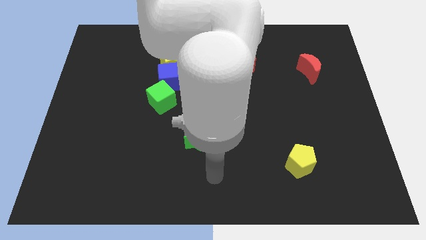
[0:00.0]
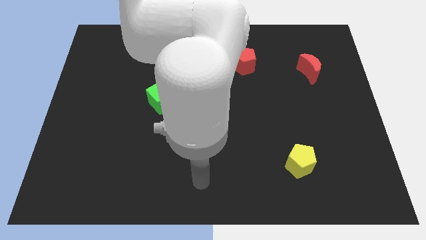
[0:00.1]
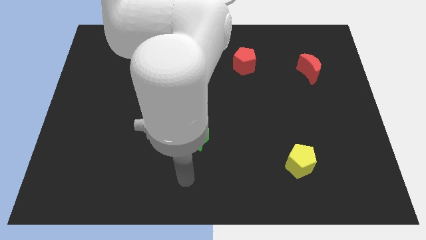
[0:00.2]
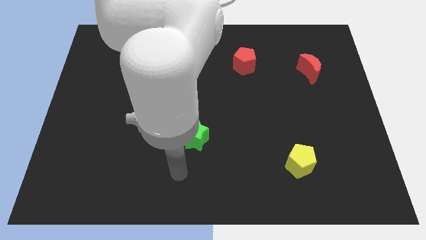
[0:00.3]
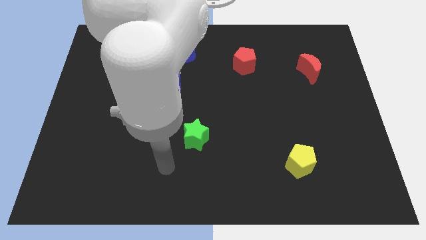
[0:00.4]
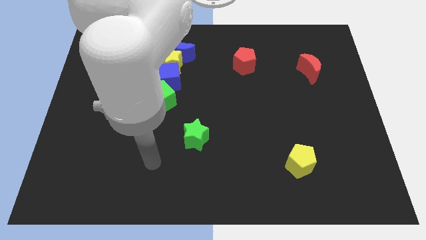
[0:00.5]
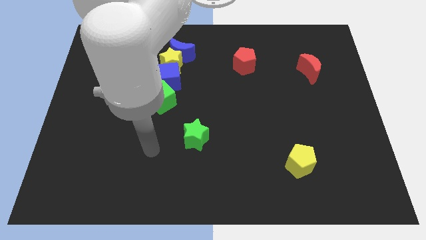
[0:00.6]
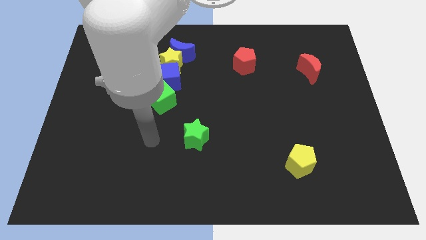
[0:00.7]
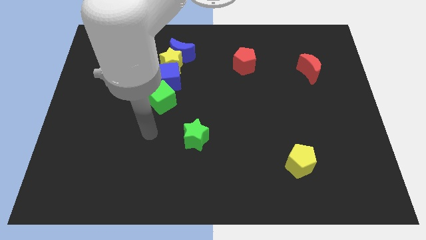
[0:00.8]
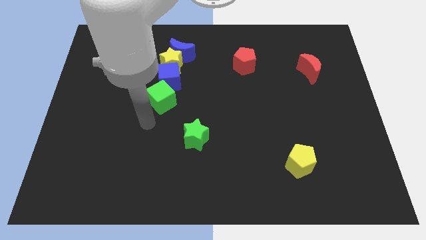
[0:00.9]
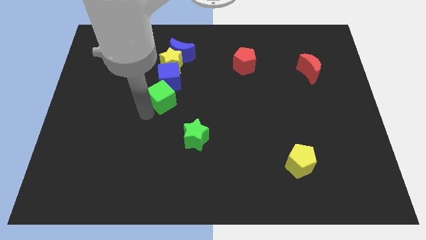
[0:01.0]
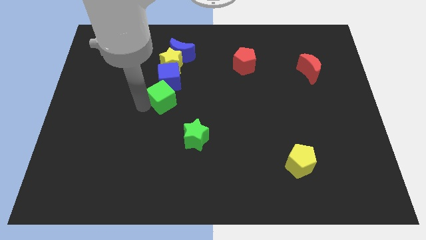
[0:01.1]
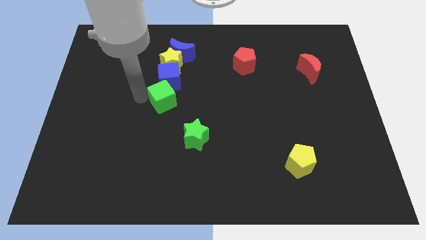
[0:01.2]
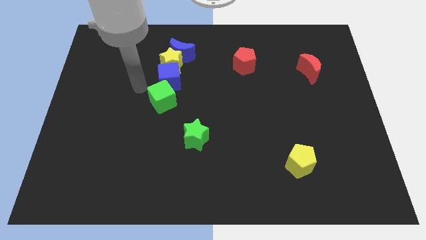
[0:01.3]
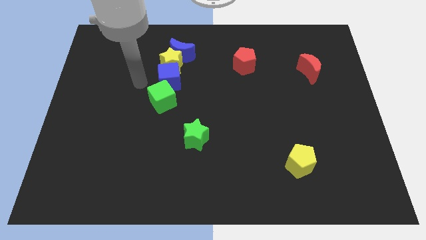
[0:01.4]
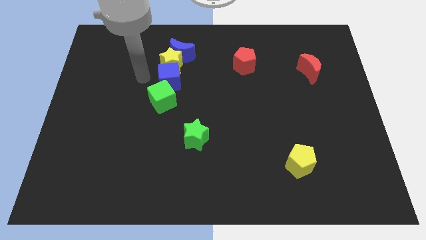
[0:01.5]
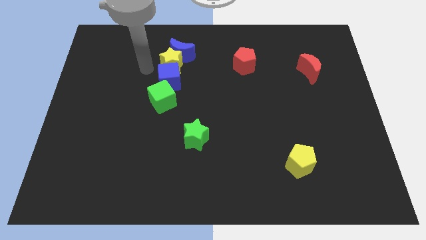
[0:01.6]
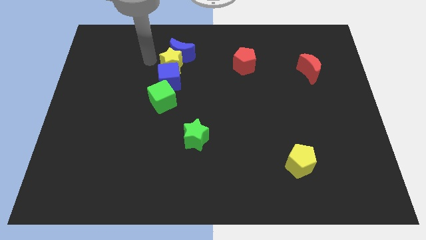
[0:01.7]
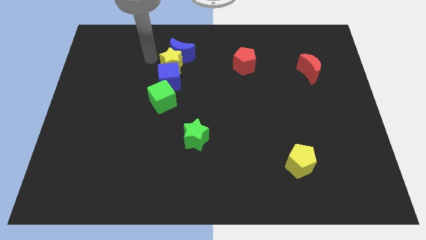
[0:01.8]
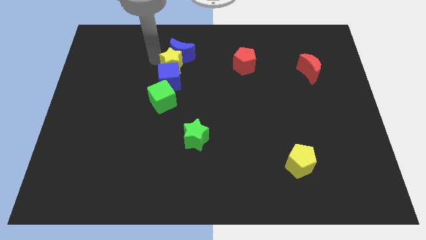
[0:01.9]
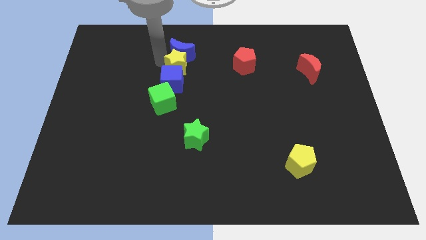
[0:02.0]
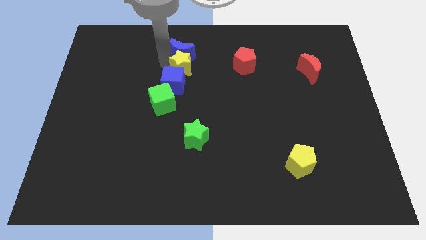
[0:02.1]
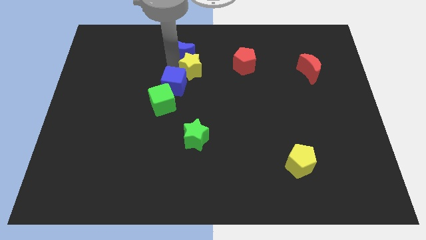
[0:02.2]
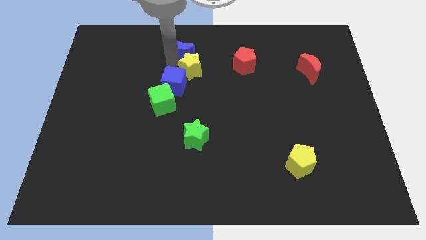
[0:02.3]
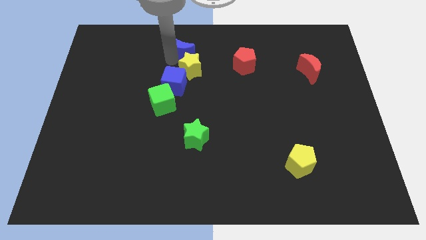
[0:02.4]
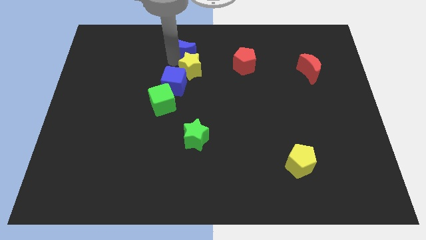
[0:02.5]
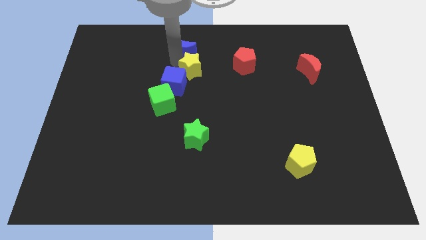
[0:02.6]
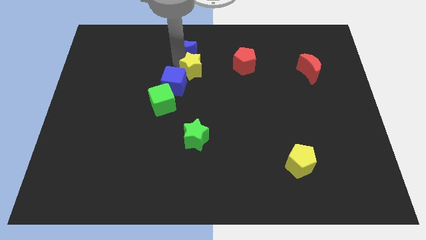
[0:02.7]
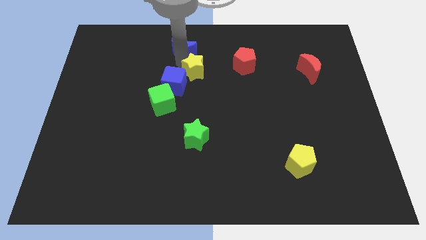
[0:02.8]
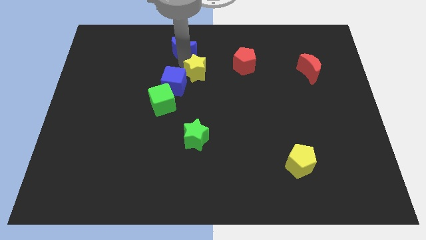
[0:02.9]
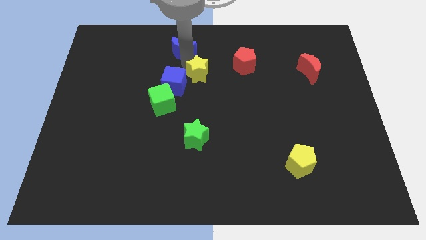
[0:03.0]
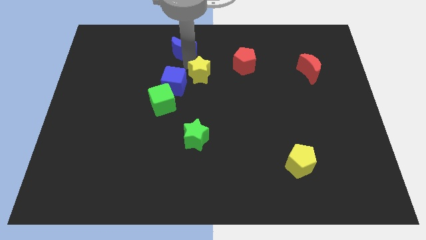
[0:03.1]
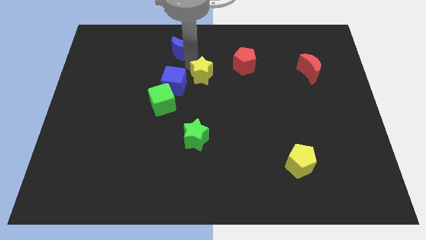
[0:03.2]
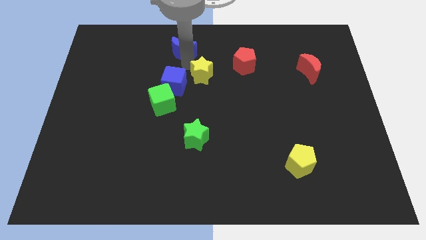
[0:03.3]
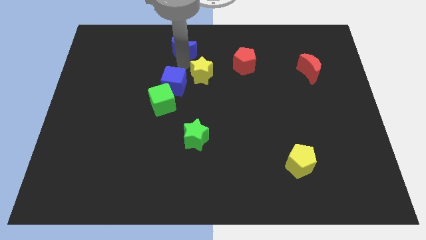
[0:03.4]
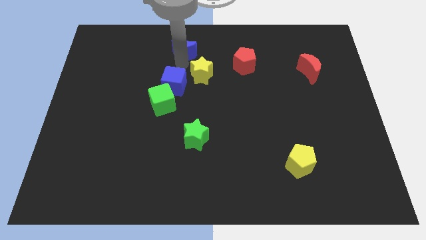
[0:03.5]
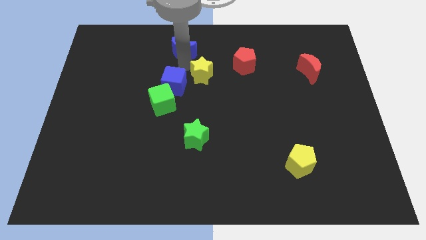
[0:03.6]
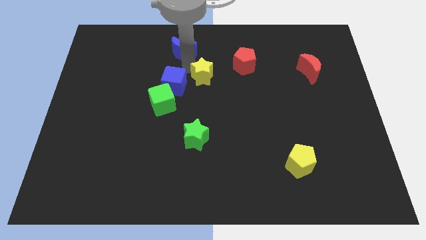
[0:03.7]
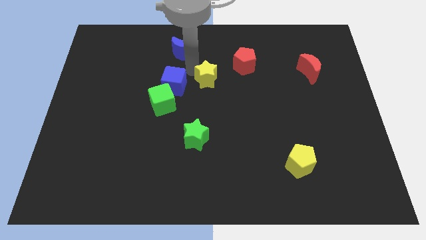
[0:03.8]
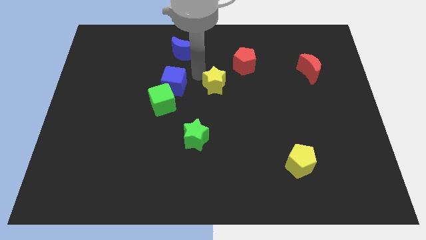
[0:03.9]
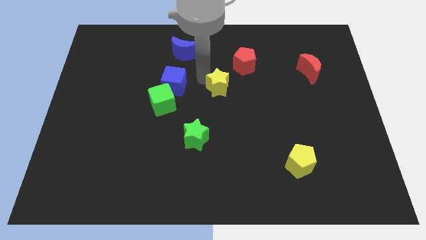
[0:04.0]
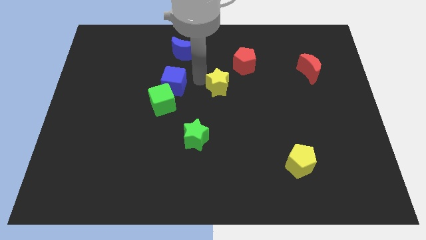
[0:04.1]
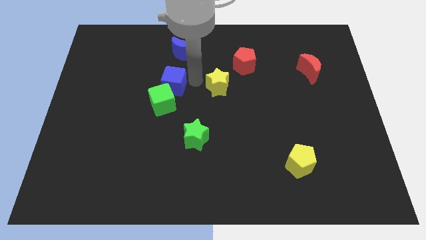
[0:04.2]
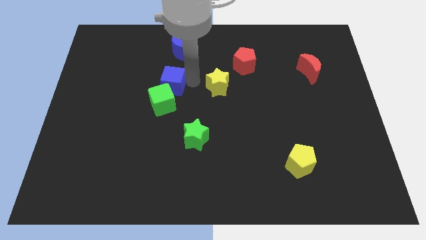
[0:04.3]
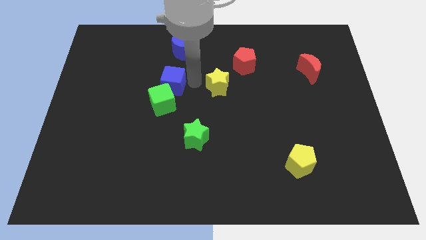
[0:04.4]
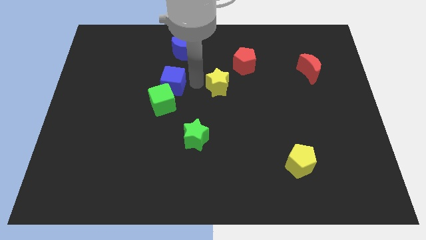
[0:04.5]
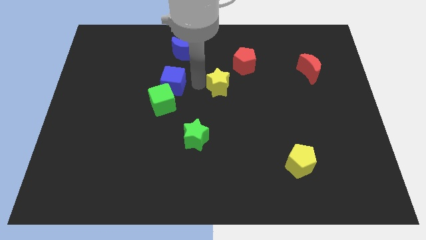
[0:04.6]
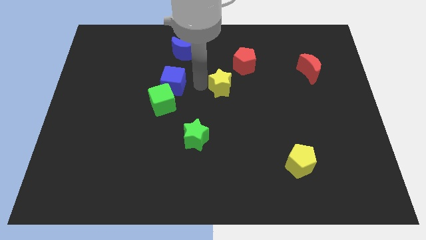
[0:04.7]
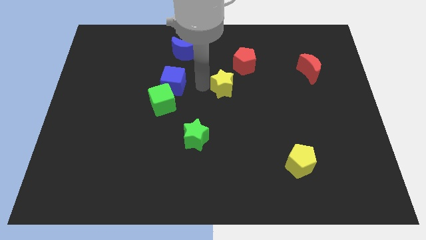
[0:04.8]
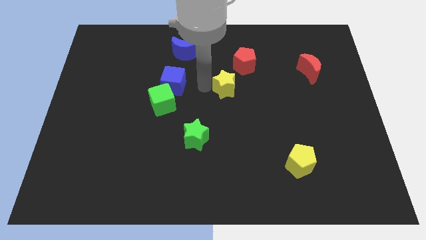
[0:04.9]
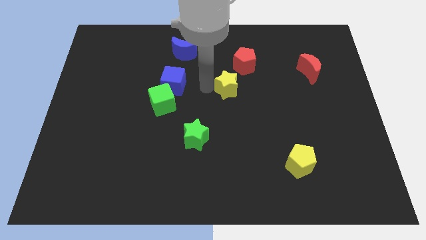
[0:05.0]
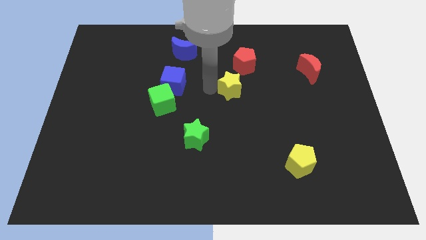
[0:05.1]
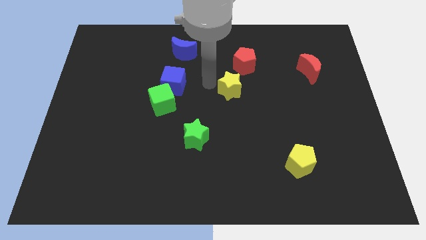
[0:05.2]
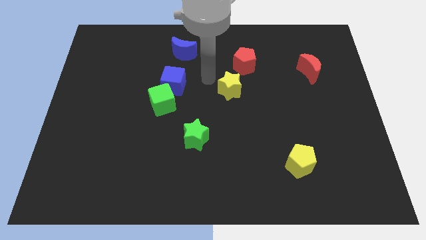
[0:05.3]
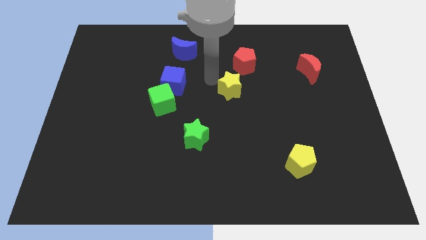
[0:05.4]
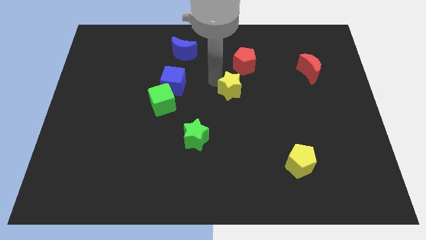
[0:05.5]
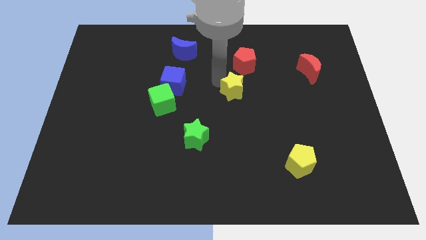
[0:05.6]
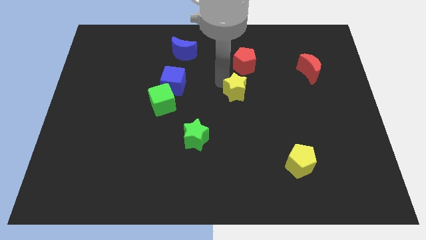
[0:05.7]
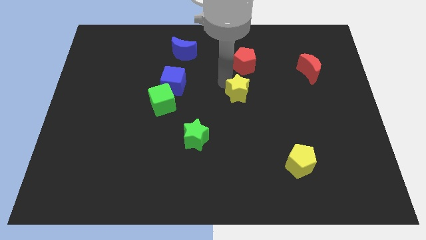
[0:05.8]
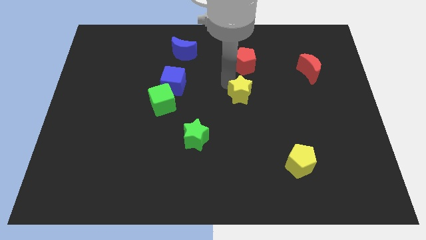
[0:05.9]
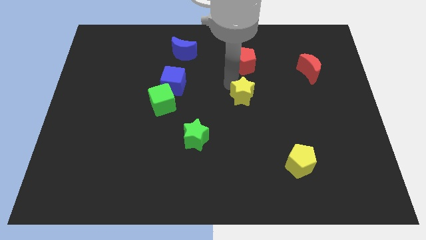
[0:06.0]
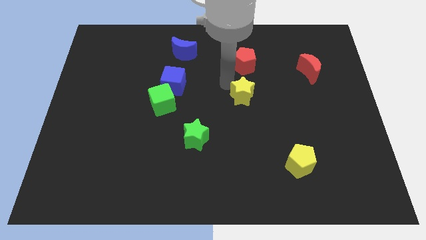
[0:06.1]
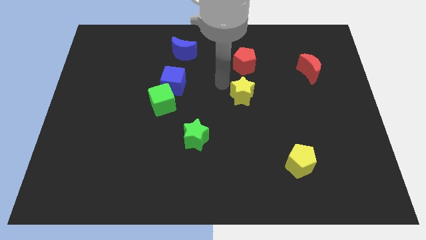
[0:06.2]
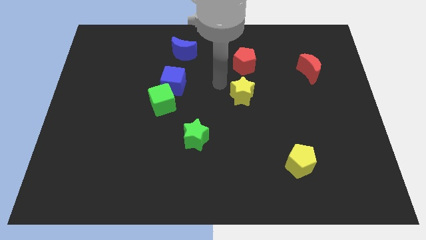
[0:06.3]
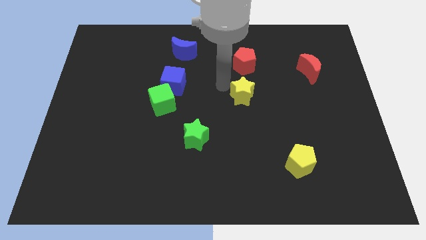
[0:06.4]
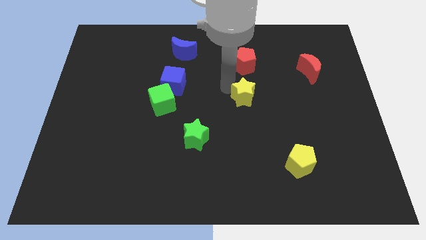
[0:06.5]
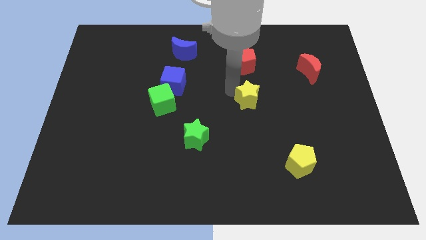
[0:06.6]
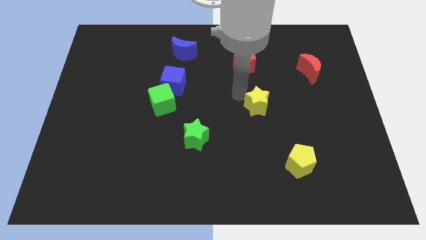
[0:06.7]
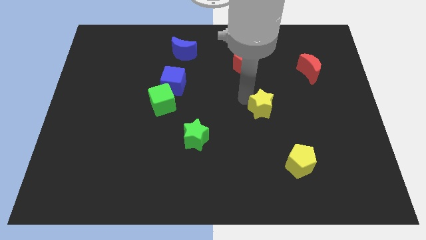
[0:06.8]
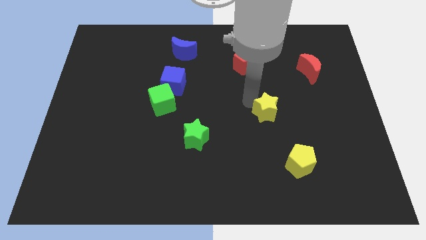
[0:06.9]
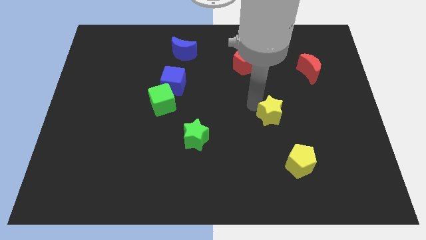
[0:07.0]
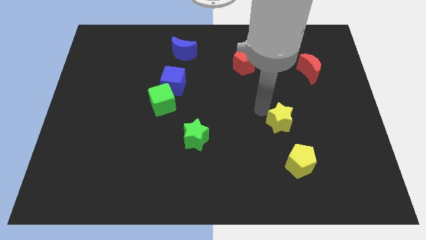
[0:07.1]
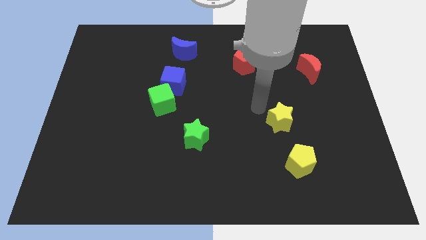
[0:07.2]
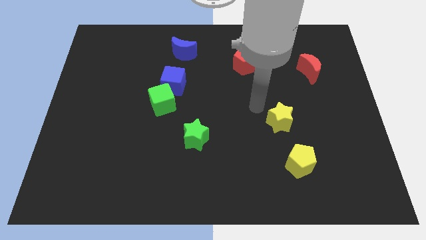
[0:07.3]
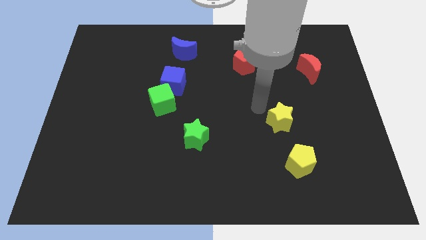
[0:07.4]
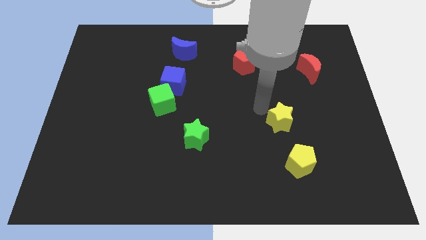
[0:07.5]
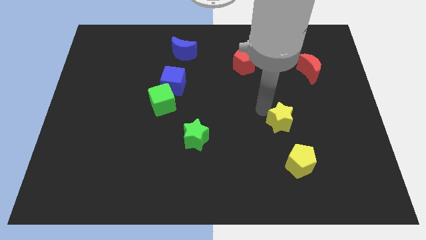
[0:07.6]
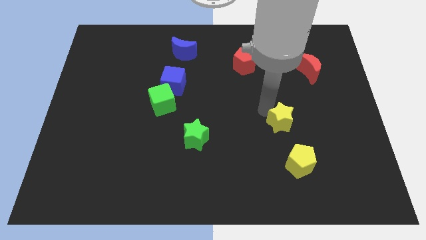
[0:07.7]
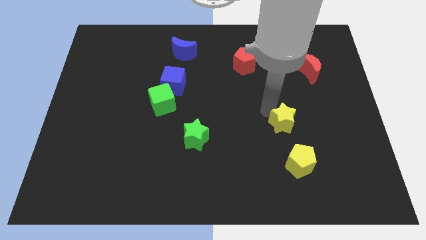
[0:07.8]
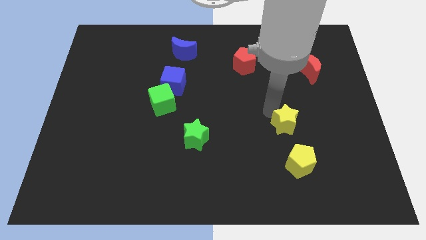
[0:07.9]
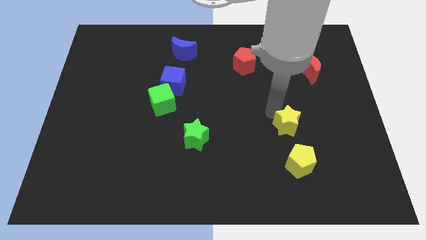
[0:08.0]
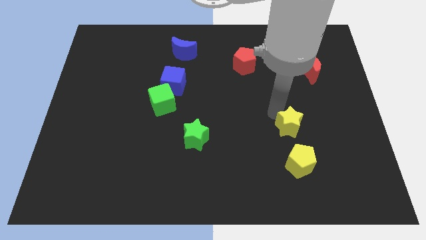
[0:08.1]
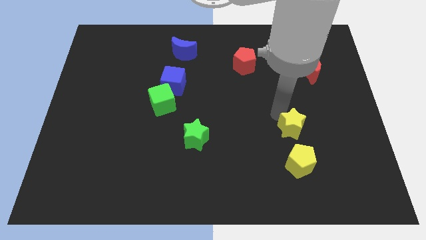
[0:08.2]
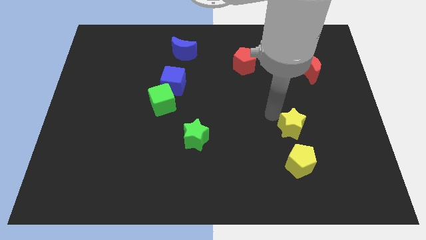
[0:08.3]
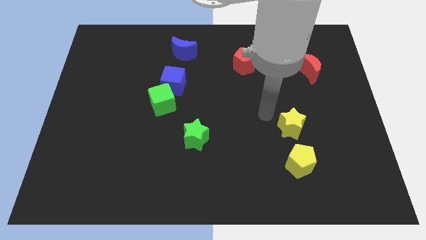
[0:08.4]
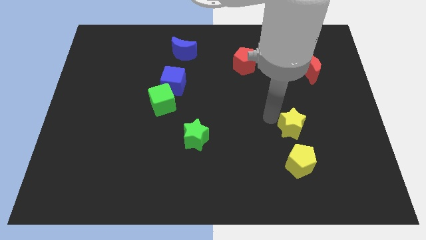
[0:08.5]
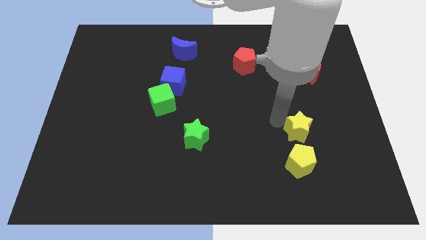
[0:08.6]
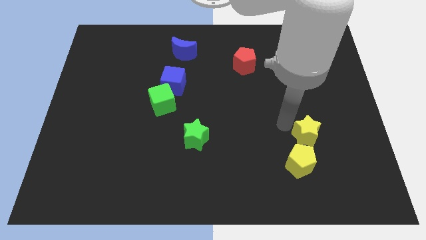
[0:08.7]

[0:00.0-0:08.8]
put the yellow star diagonally up and to the right of the yellow pentagon
